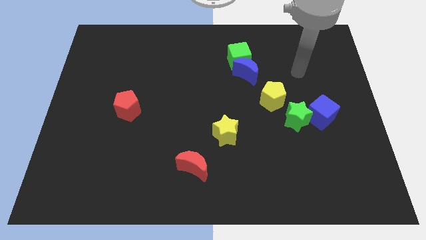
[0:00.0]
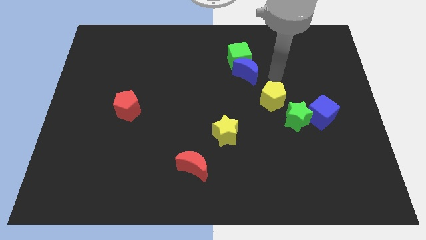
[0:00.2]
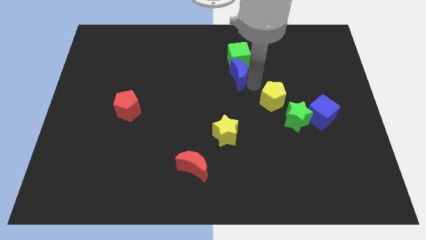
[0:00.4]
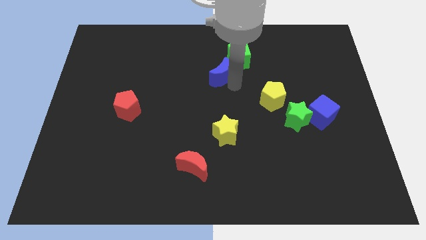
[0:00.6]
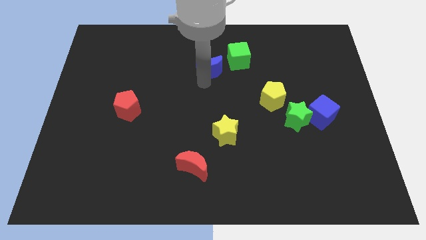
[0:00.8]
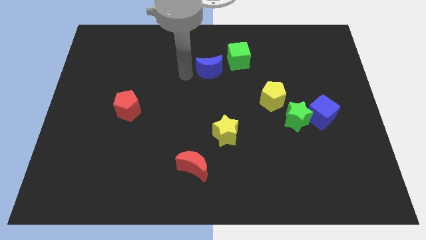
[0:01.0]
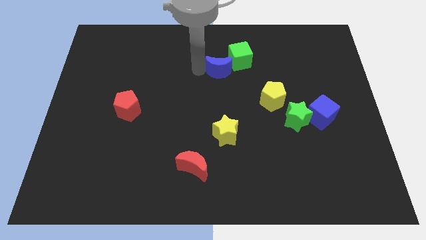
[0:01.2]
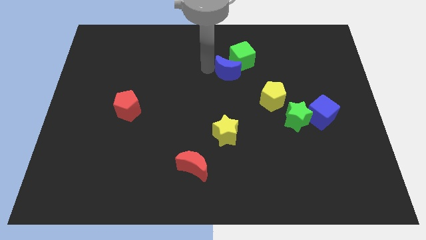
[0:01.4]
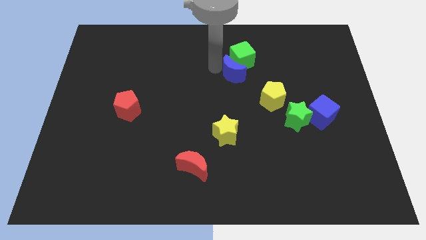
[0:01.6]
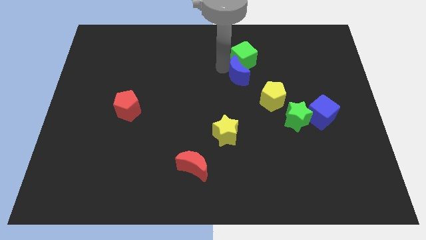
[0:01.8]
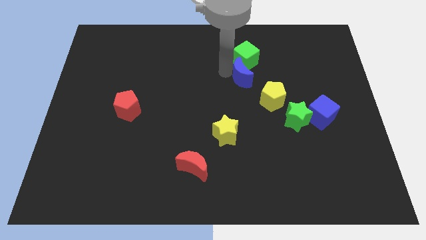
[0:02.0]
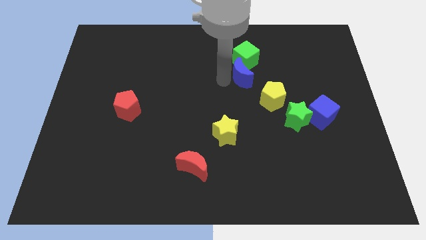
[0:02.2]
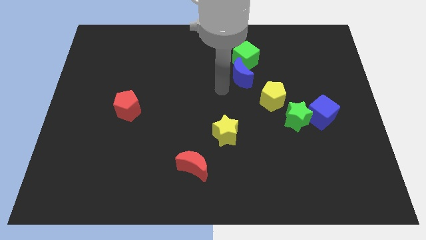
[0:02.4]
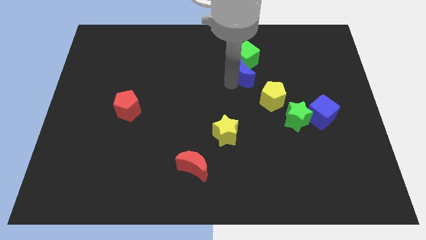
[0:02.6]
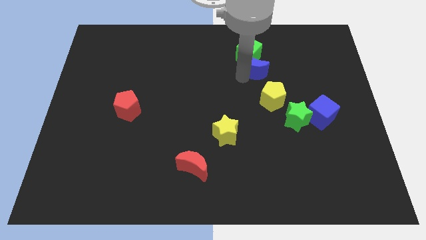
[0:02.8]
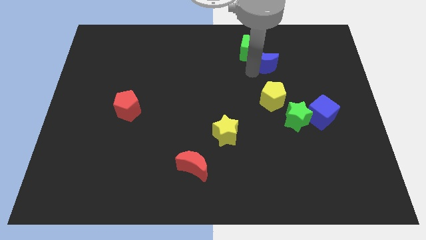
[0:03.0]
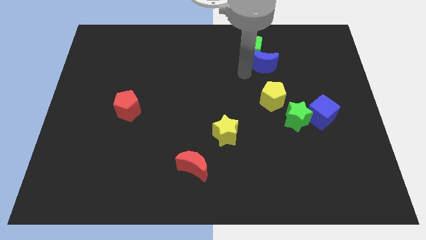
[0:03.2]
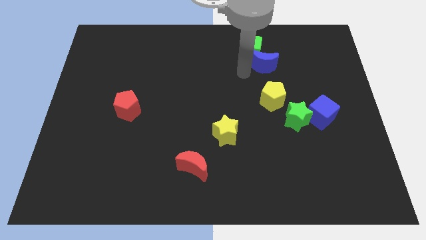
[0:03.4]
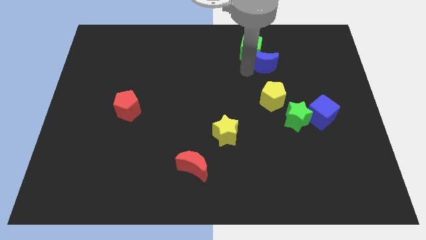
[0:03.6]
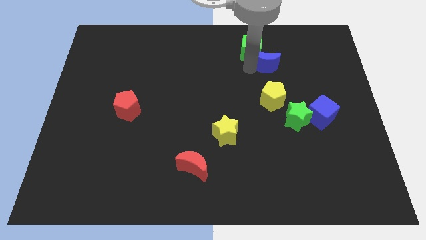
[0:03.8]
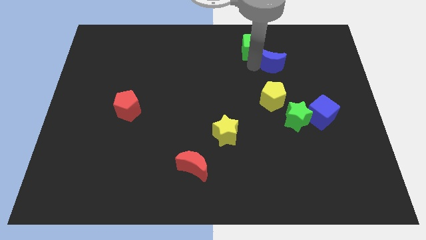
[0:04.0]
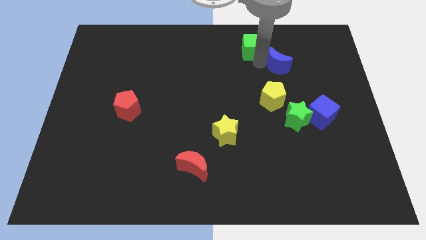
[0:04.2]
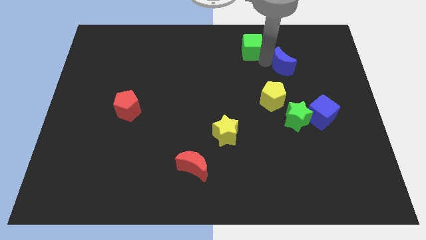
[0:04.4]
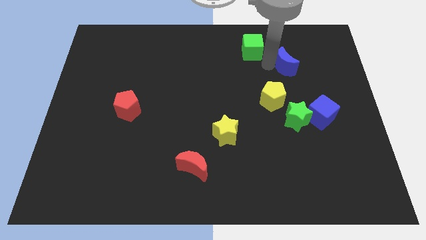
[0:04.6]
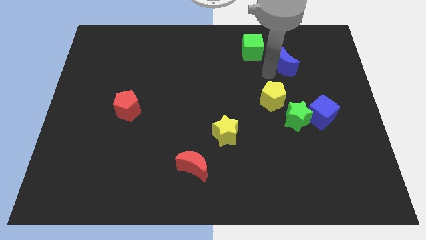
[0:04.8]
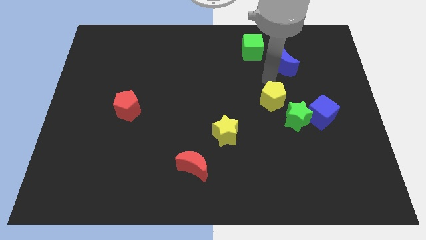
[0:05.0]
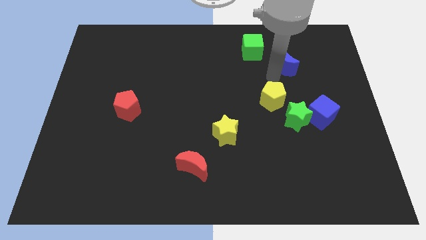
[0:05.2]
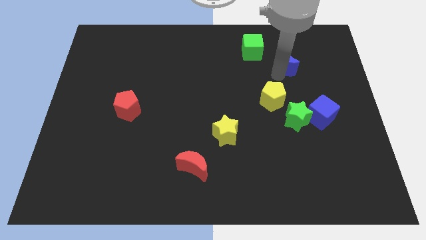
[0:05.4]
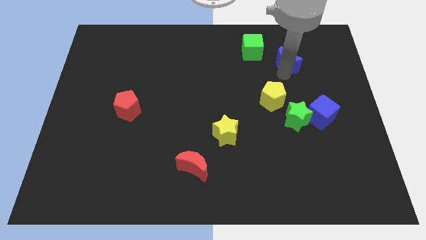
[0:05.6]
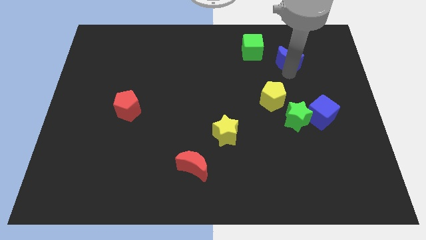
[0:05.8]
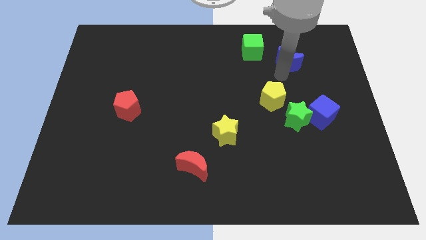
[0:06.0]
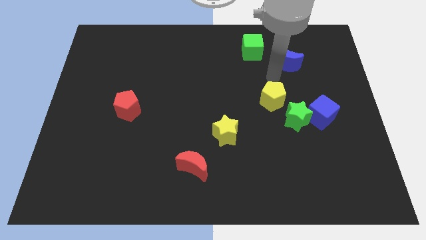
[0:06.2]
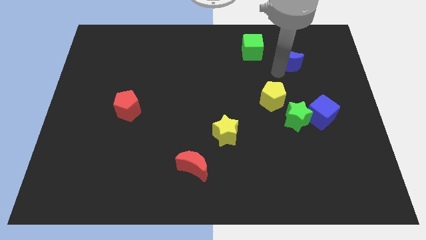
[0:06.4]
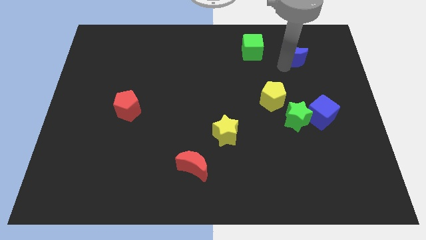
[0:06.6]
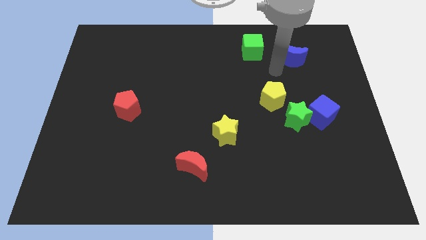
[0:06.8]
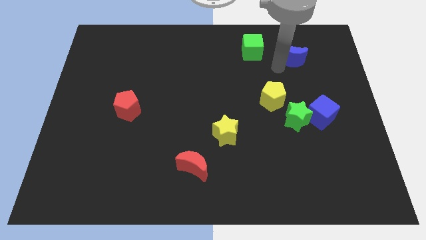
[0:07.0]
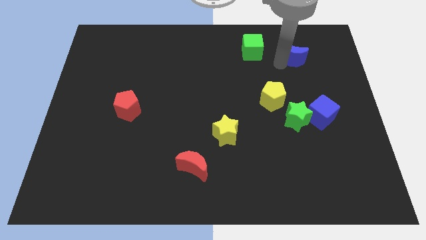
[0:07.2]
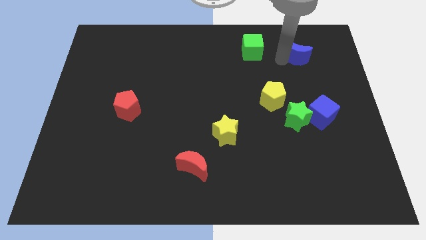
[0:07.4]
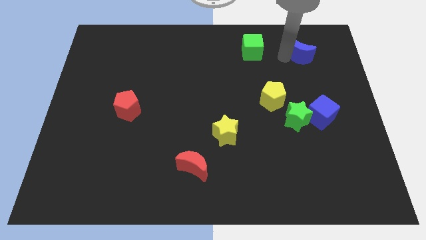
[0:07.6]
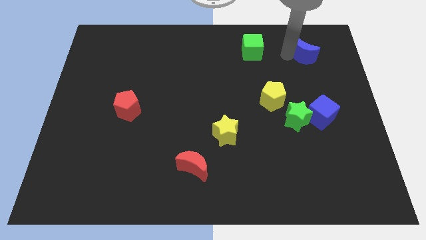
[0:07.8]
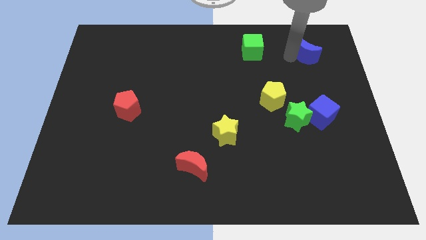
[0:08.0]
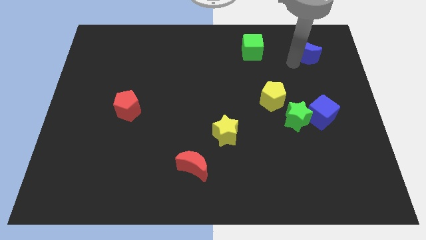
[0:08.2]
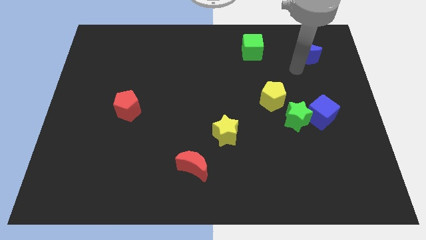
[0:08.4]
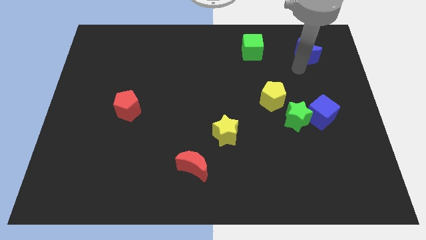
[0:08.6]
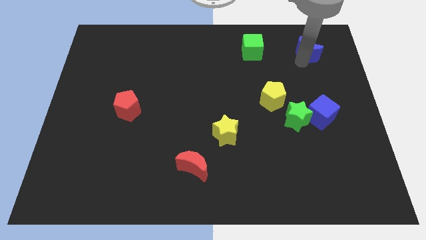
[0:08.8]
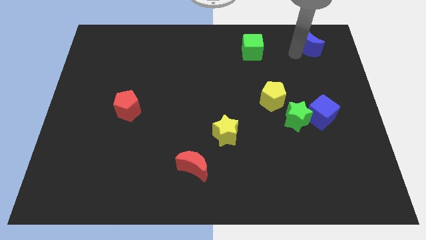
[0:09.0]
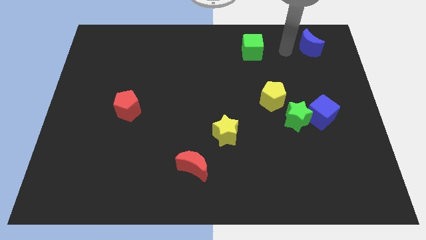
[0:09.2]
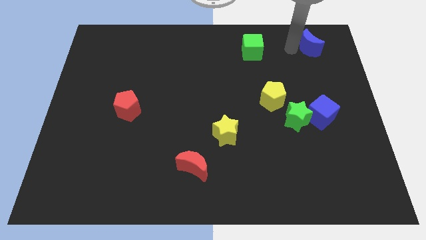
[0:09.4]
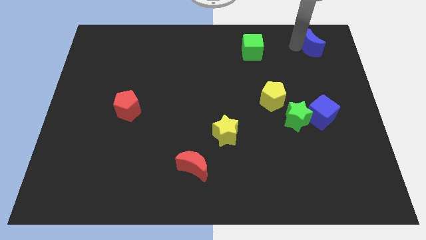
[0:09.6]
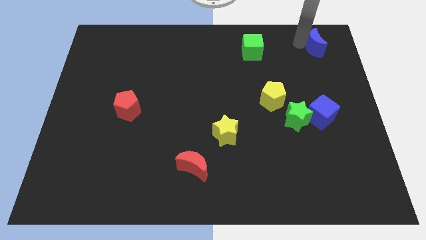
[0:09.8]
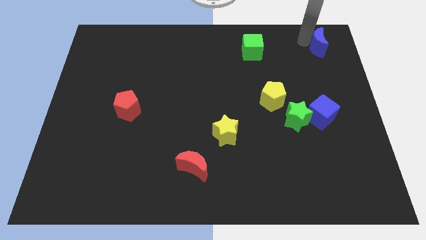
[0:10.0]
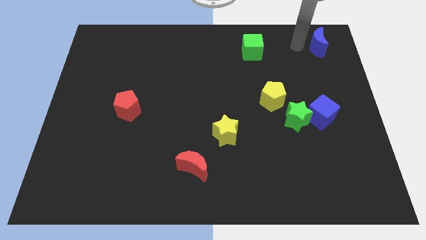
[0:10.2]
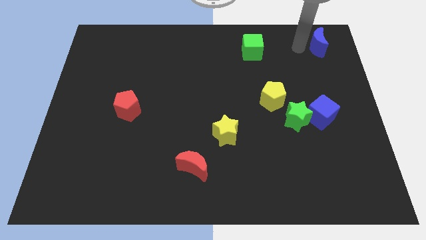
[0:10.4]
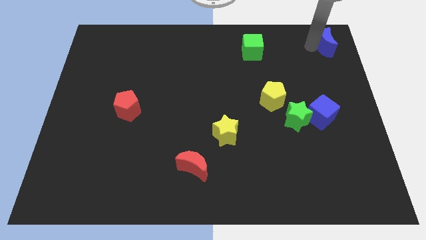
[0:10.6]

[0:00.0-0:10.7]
push the blue moon to the top right of the board
